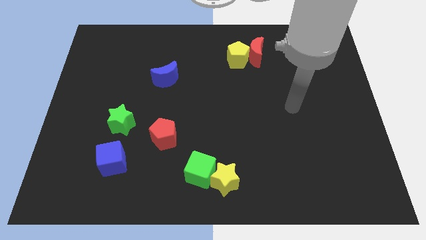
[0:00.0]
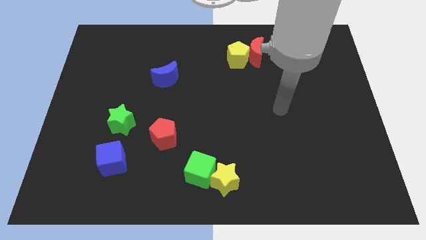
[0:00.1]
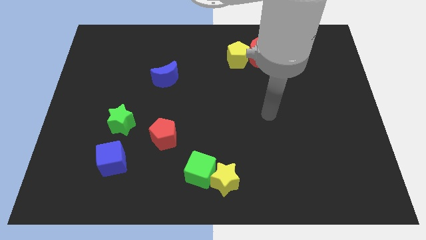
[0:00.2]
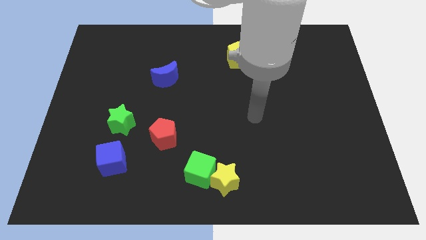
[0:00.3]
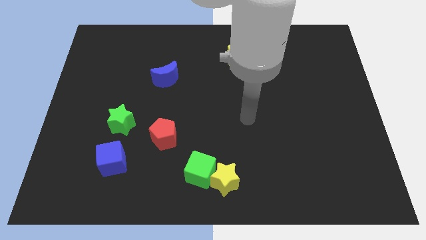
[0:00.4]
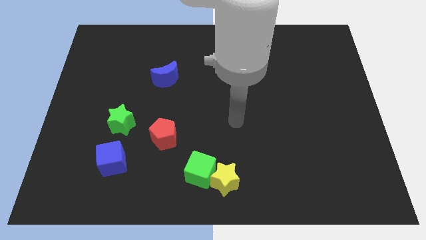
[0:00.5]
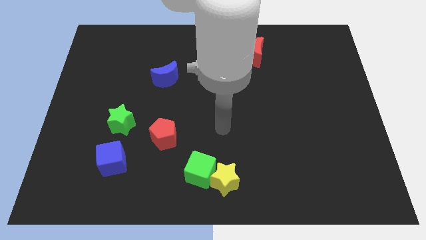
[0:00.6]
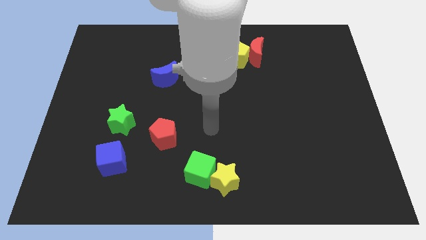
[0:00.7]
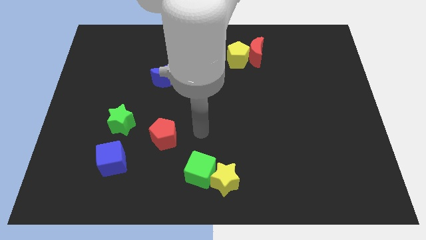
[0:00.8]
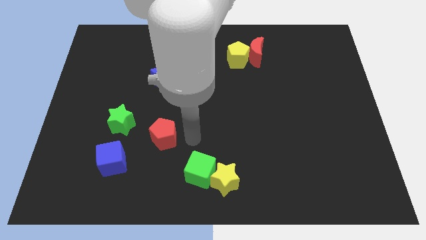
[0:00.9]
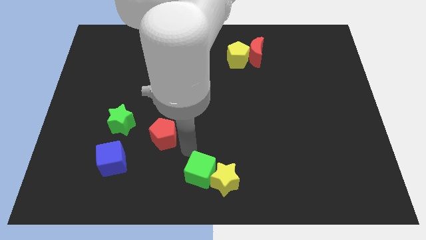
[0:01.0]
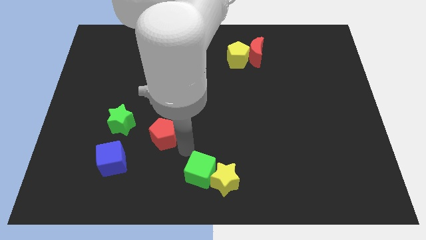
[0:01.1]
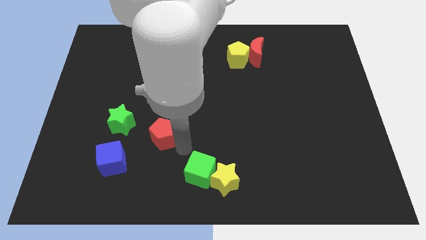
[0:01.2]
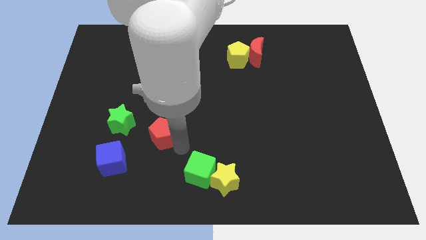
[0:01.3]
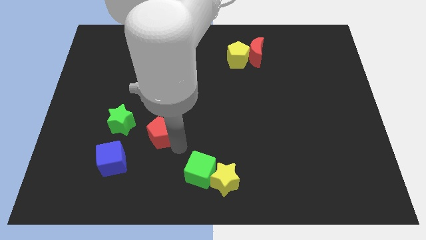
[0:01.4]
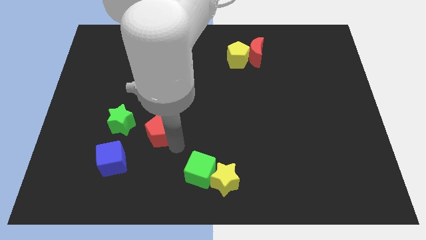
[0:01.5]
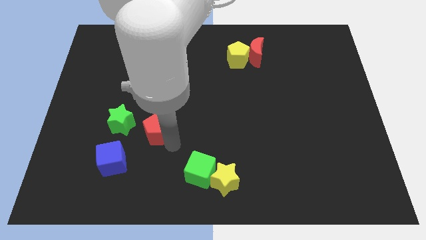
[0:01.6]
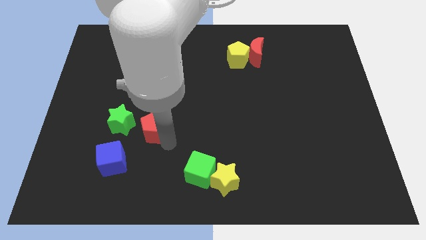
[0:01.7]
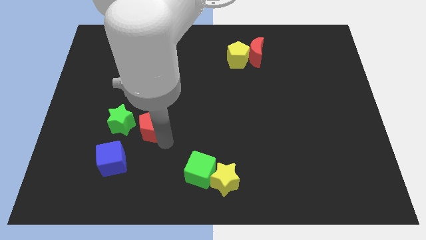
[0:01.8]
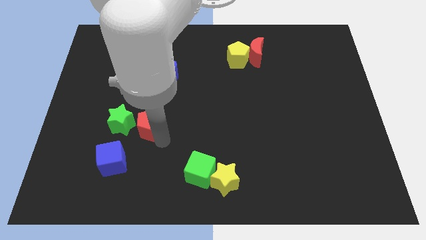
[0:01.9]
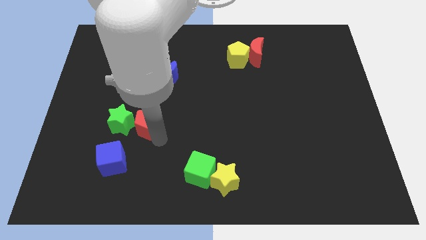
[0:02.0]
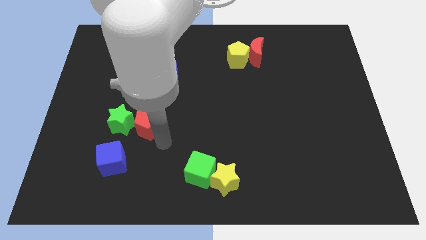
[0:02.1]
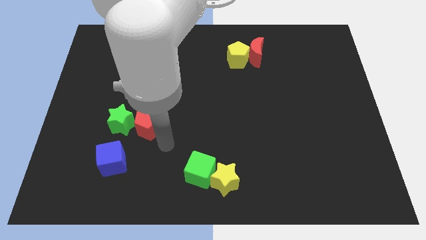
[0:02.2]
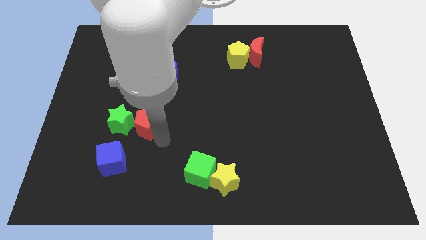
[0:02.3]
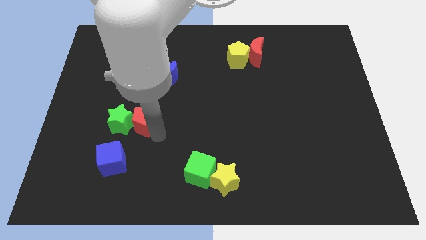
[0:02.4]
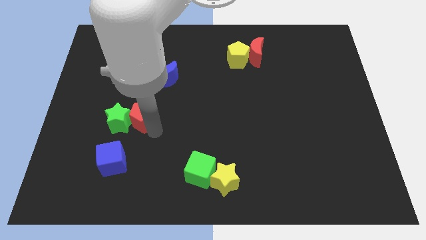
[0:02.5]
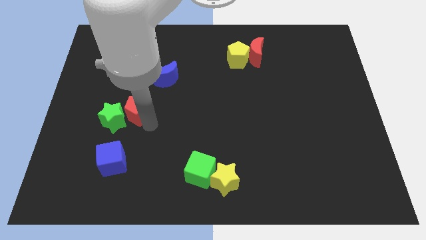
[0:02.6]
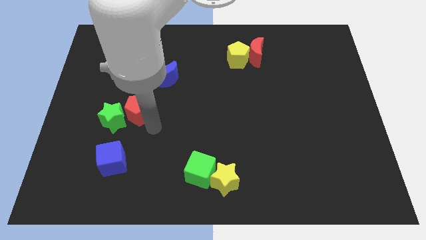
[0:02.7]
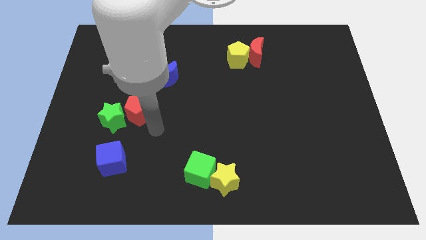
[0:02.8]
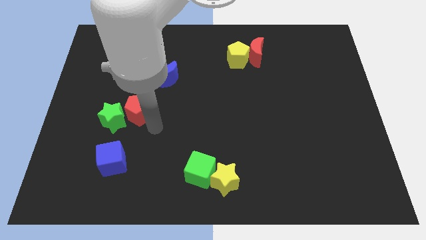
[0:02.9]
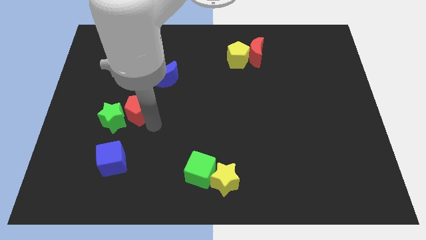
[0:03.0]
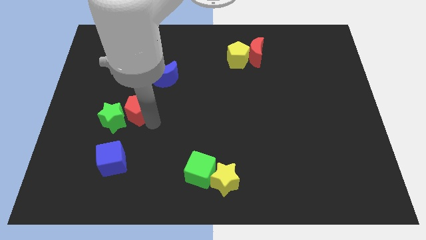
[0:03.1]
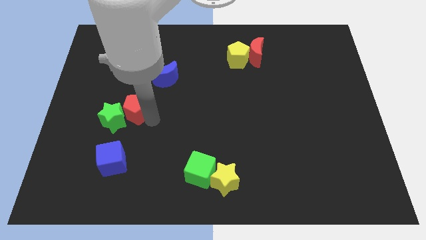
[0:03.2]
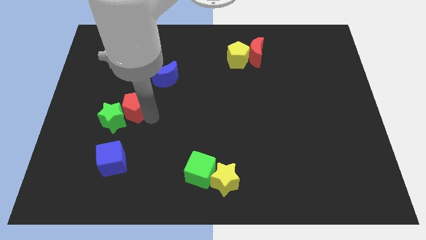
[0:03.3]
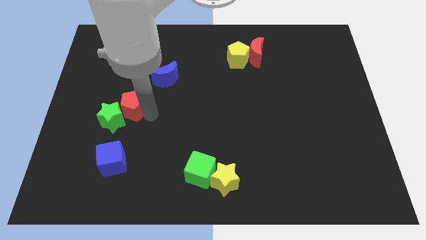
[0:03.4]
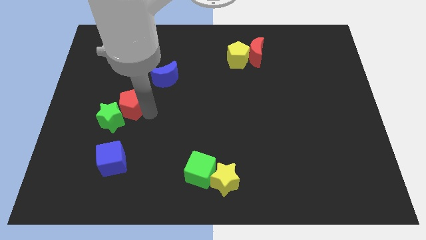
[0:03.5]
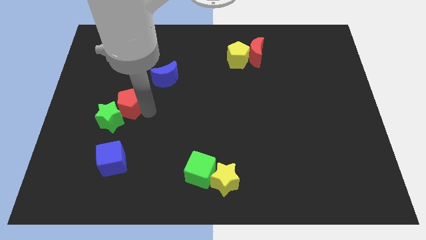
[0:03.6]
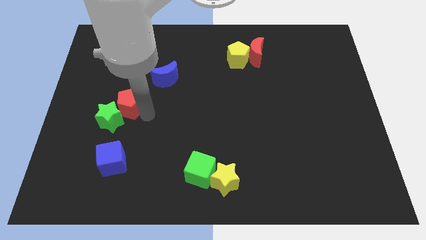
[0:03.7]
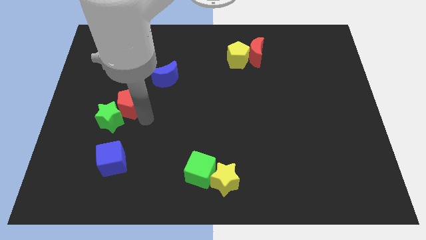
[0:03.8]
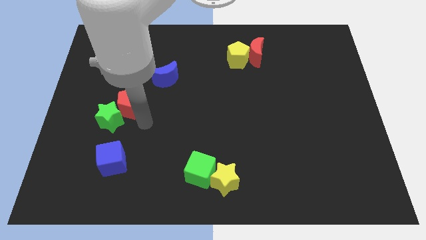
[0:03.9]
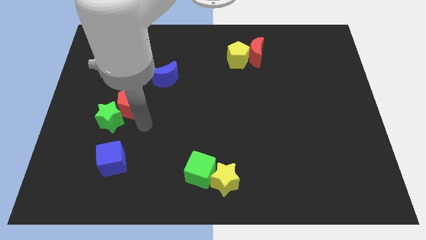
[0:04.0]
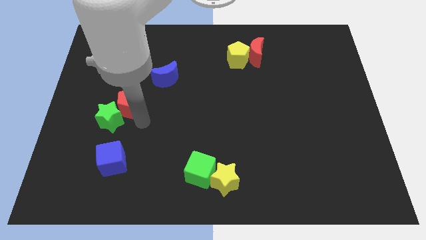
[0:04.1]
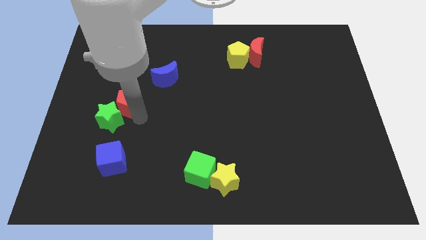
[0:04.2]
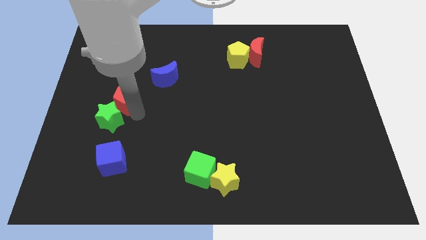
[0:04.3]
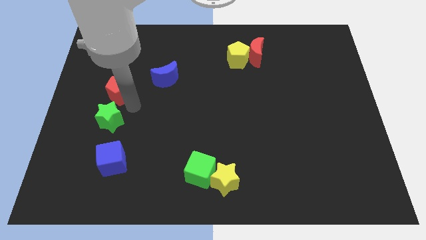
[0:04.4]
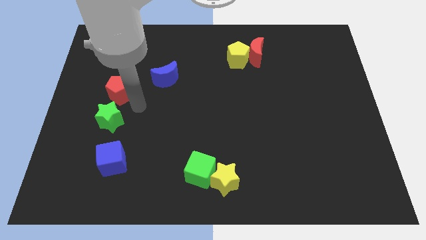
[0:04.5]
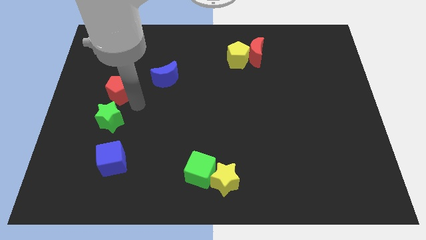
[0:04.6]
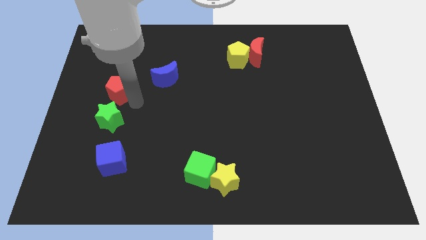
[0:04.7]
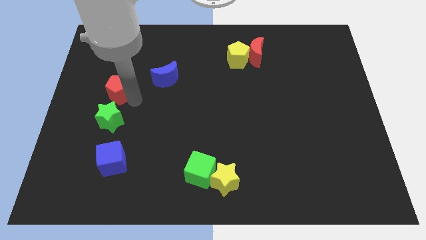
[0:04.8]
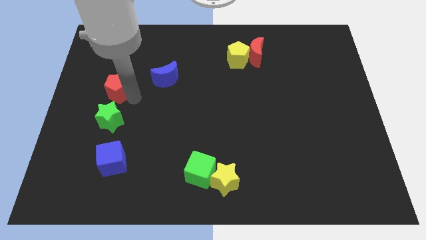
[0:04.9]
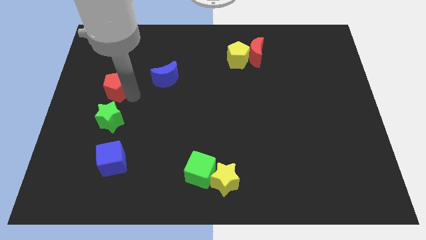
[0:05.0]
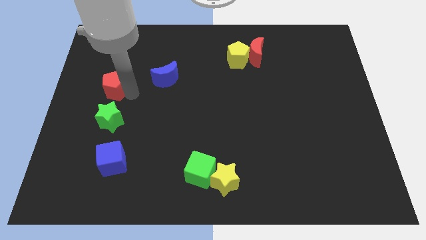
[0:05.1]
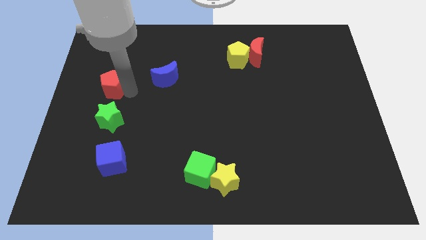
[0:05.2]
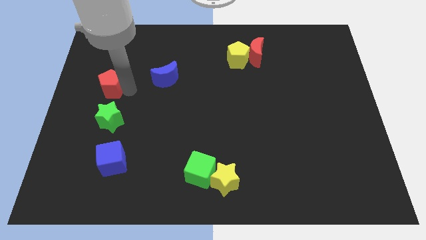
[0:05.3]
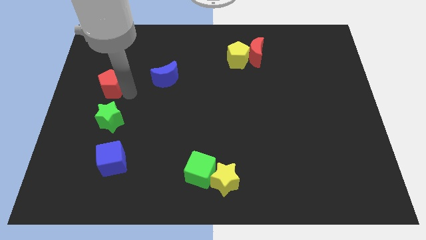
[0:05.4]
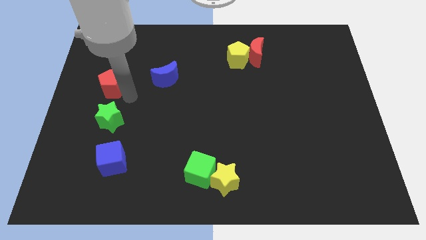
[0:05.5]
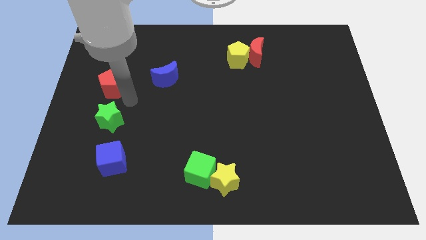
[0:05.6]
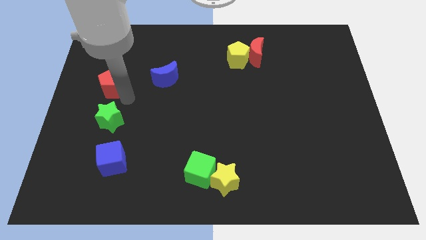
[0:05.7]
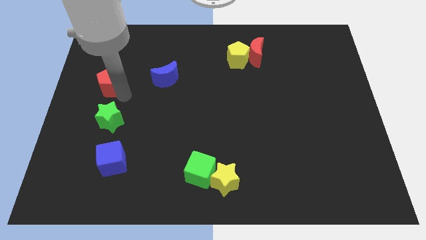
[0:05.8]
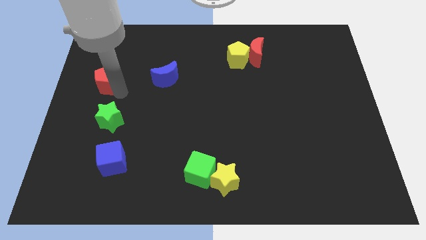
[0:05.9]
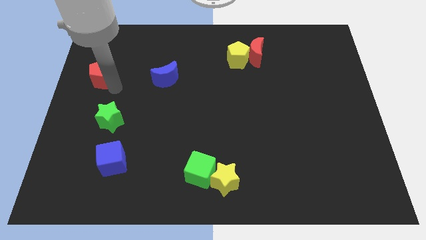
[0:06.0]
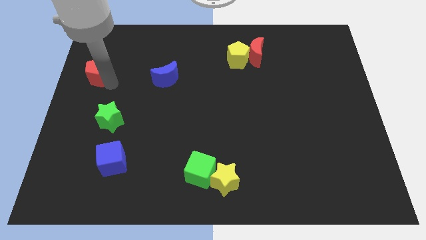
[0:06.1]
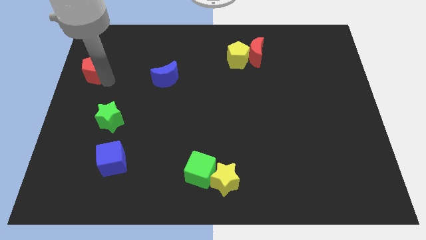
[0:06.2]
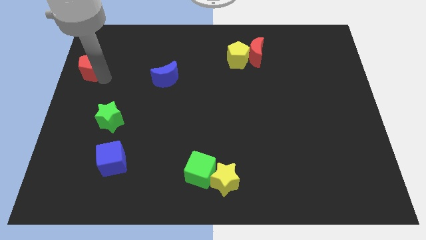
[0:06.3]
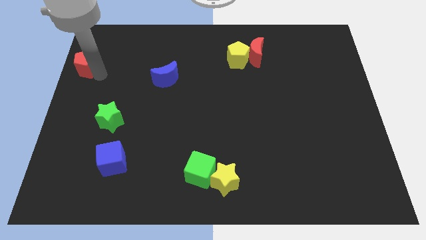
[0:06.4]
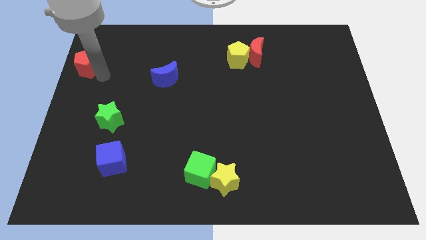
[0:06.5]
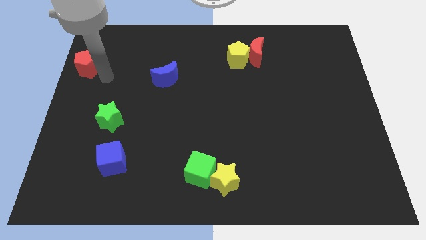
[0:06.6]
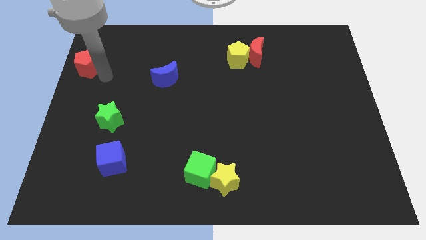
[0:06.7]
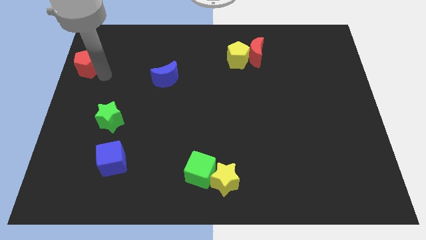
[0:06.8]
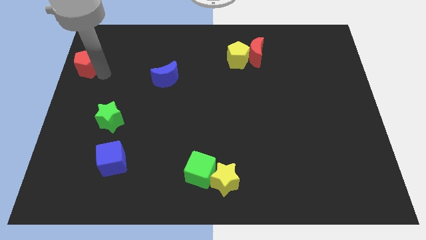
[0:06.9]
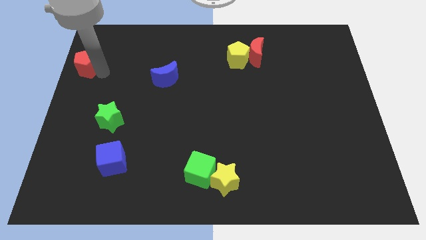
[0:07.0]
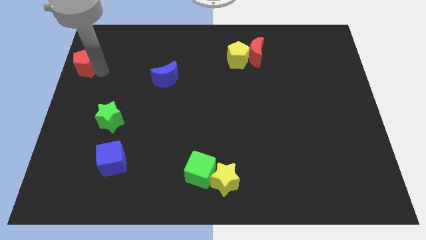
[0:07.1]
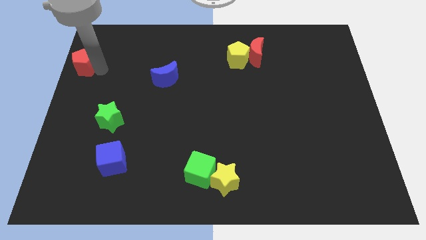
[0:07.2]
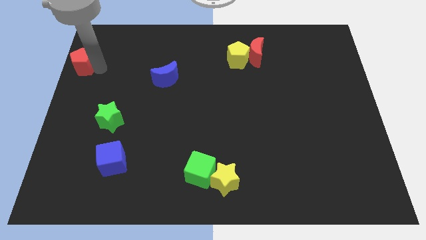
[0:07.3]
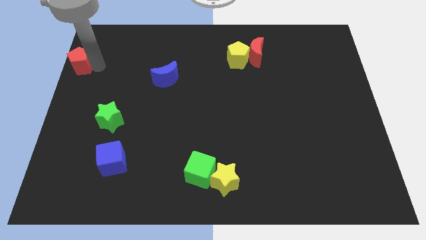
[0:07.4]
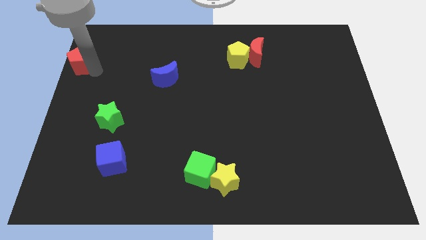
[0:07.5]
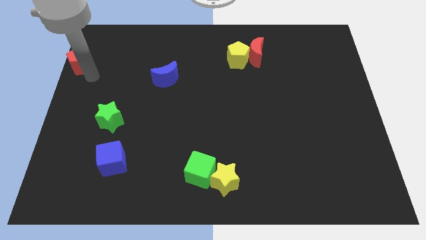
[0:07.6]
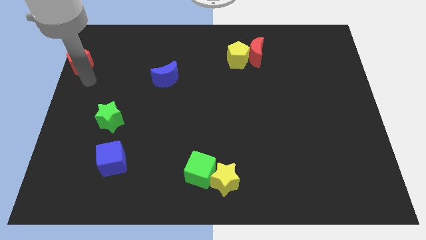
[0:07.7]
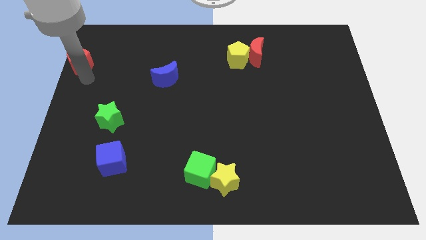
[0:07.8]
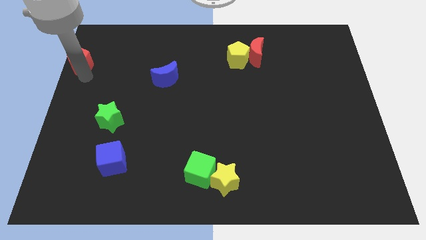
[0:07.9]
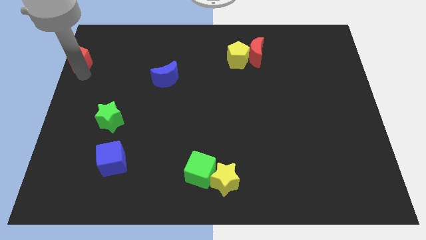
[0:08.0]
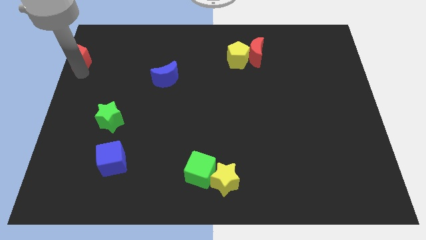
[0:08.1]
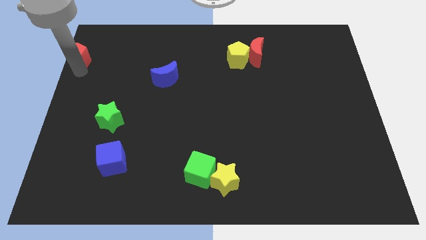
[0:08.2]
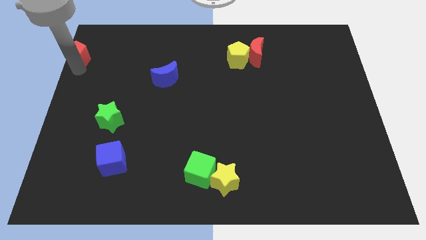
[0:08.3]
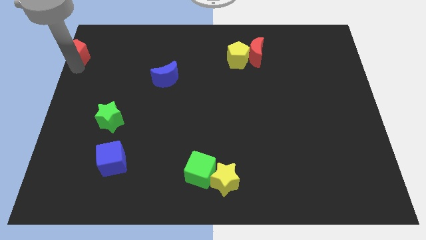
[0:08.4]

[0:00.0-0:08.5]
move the red pentagon to the top left of the board
